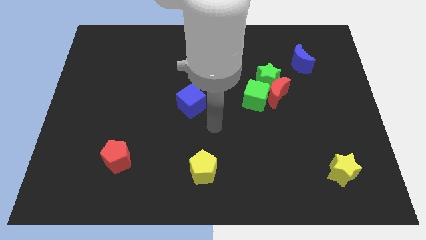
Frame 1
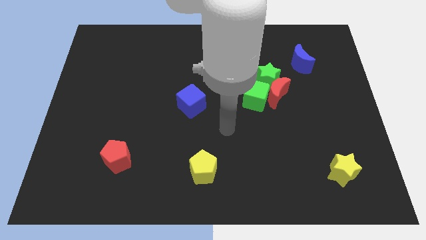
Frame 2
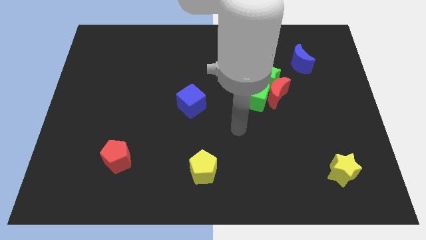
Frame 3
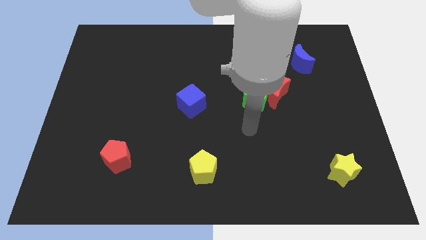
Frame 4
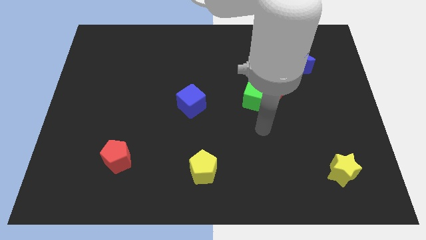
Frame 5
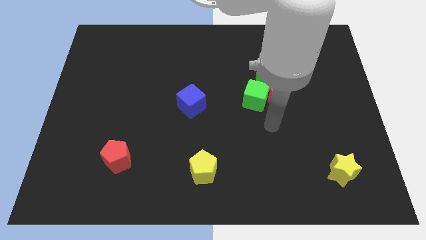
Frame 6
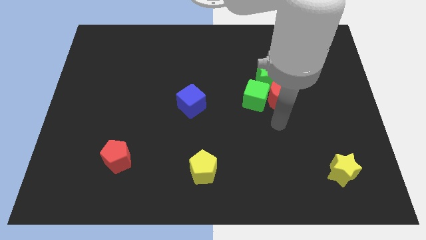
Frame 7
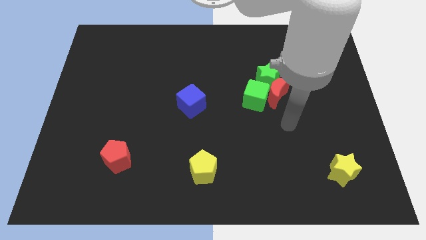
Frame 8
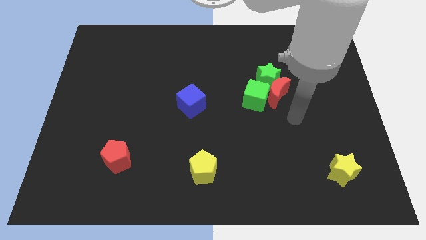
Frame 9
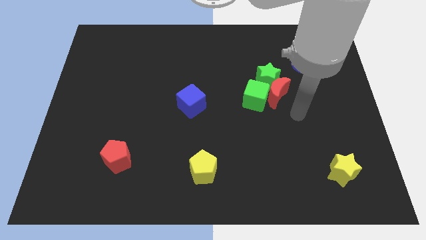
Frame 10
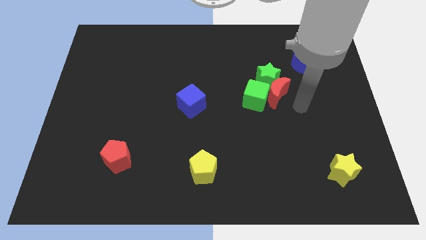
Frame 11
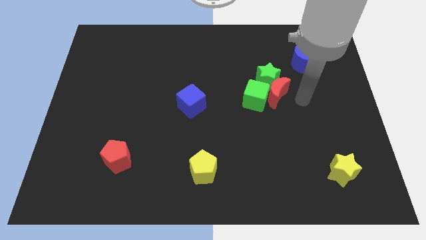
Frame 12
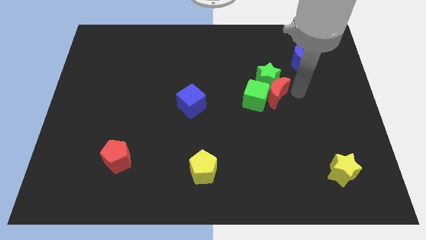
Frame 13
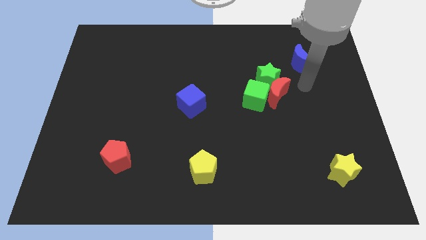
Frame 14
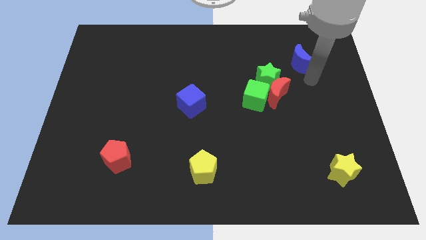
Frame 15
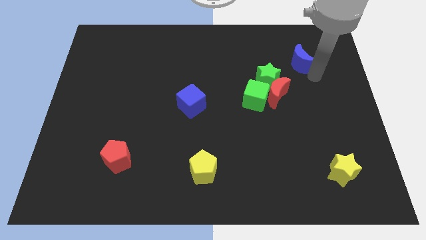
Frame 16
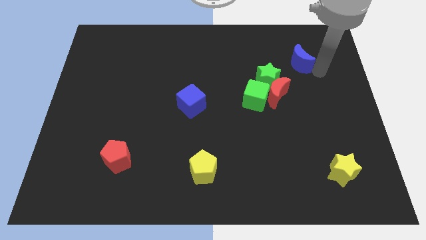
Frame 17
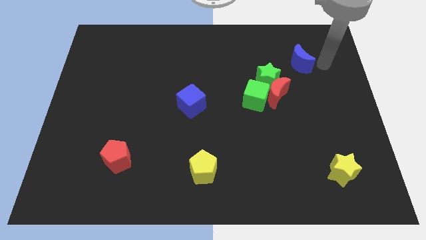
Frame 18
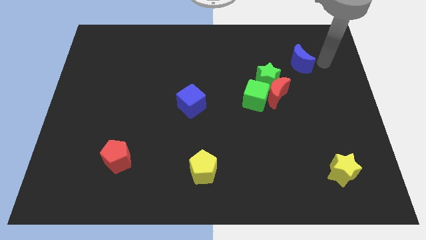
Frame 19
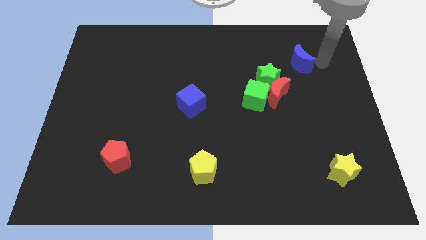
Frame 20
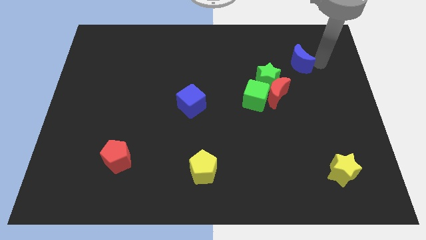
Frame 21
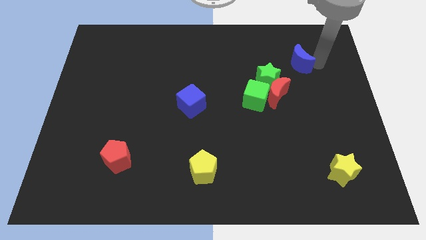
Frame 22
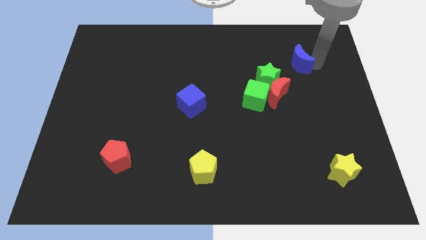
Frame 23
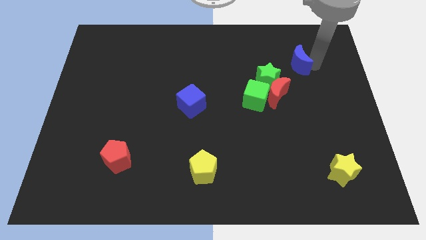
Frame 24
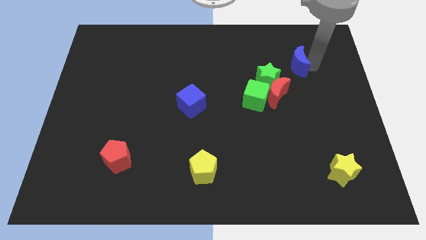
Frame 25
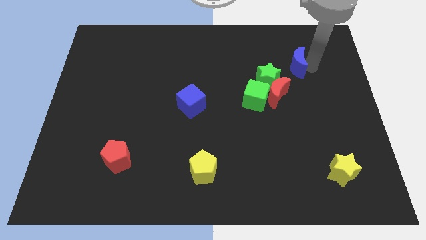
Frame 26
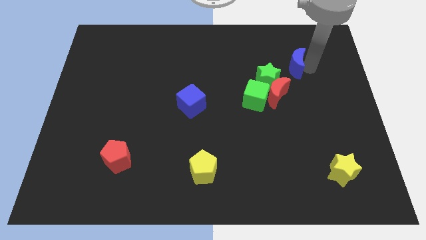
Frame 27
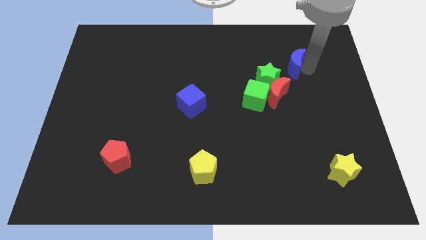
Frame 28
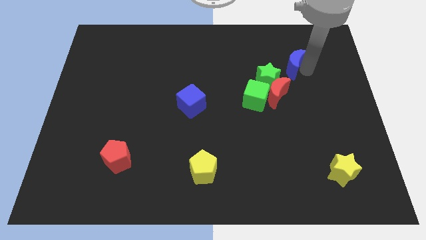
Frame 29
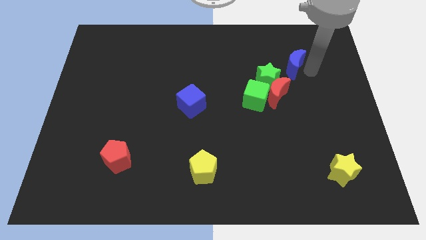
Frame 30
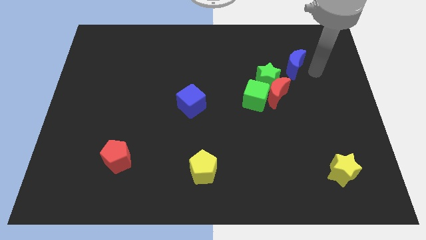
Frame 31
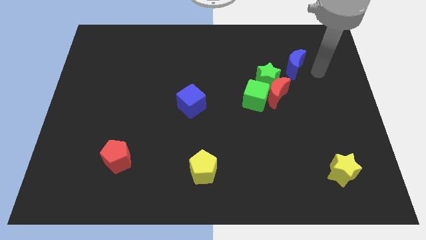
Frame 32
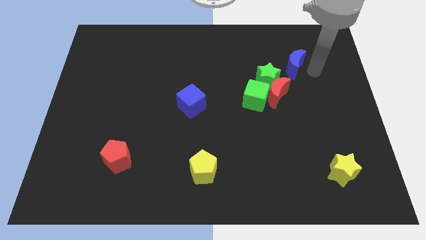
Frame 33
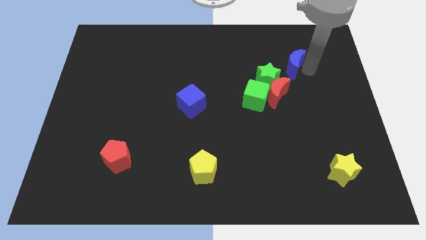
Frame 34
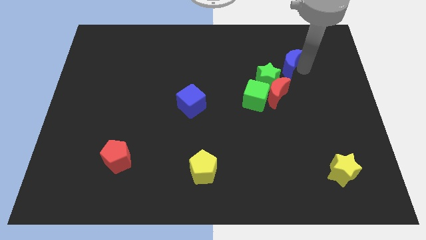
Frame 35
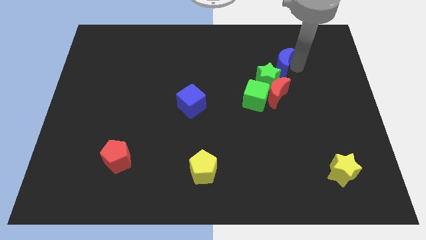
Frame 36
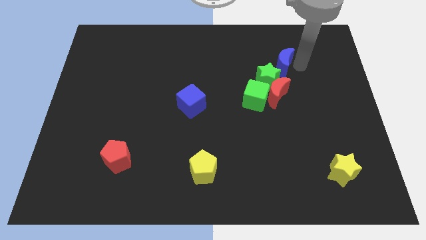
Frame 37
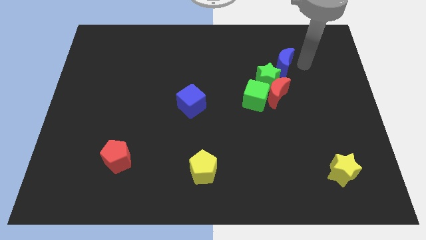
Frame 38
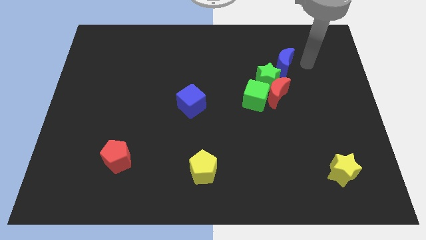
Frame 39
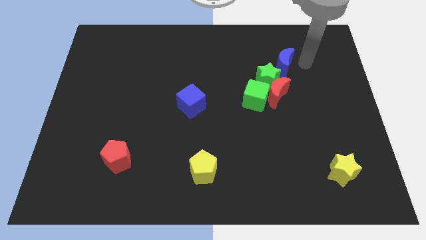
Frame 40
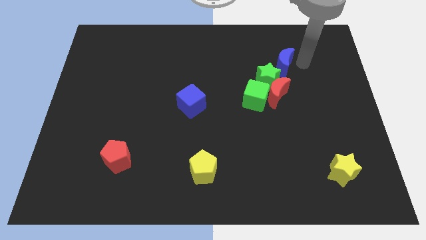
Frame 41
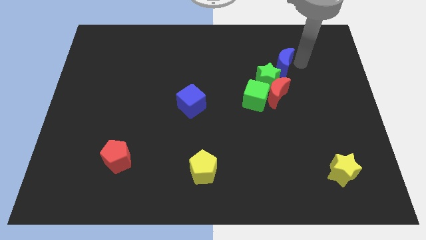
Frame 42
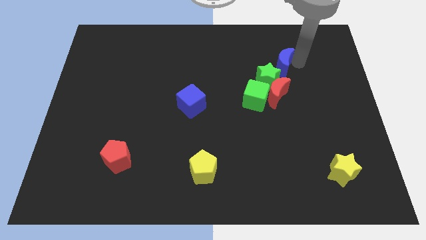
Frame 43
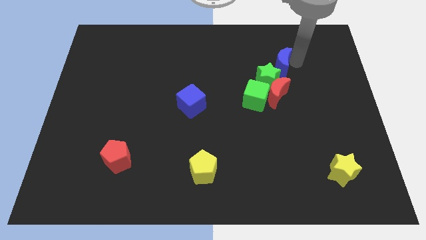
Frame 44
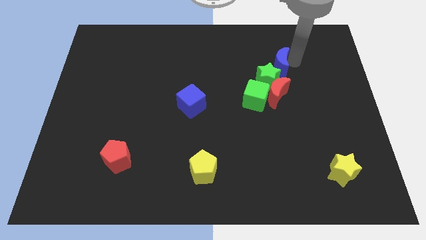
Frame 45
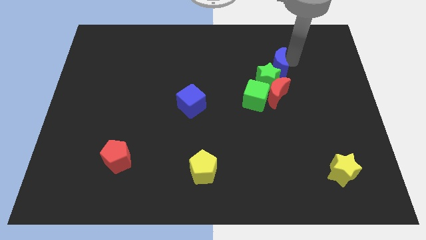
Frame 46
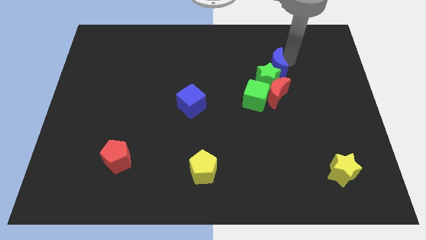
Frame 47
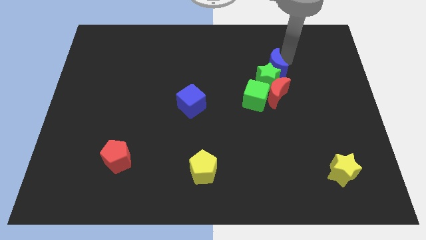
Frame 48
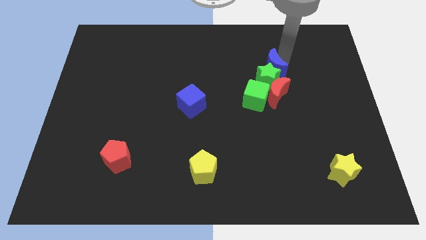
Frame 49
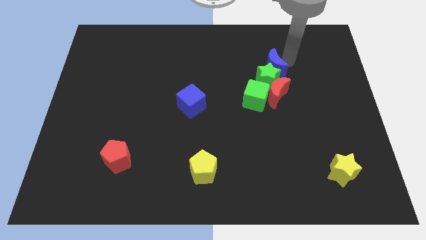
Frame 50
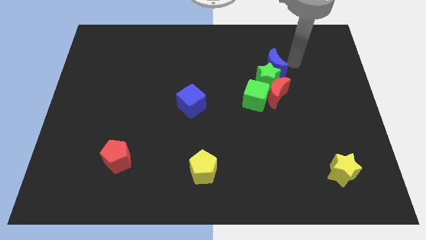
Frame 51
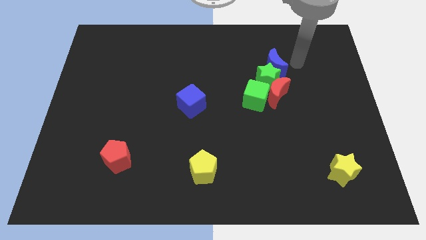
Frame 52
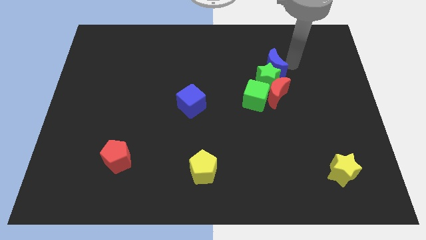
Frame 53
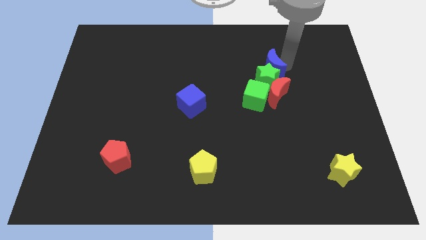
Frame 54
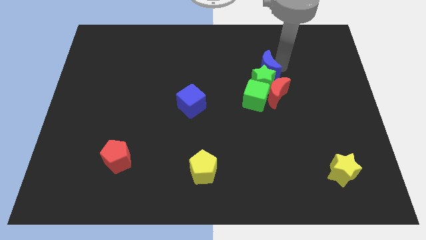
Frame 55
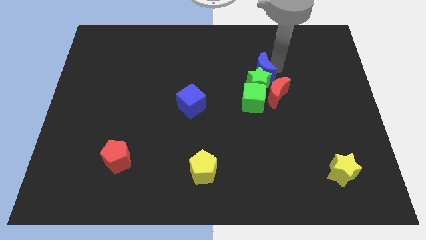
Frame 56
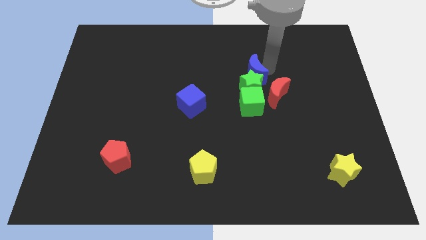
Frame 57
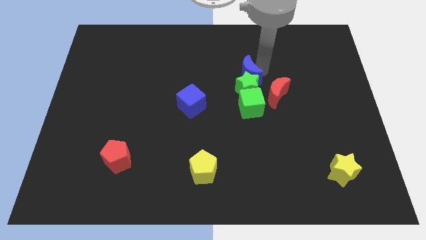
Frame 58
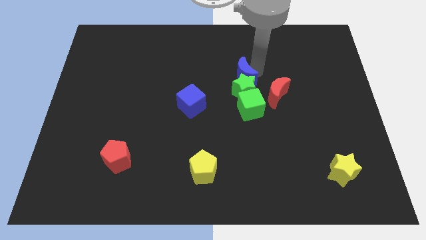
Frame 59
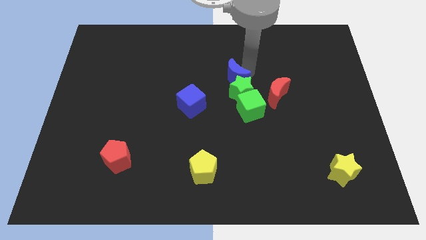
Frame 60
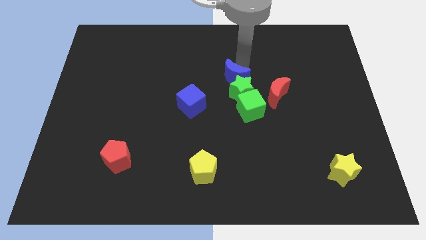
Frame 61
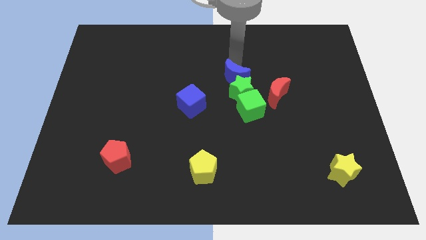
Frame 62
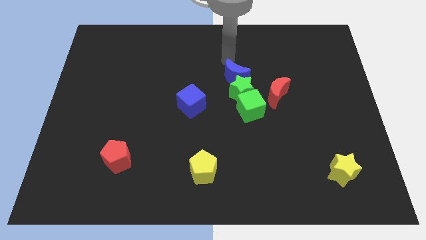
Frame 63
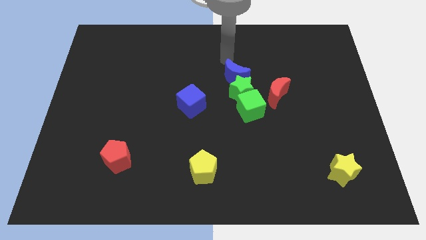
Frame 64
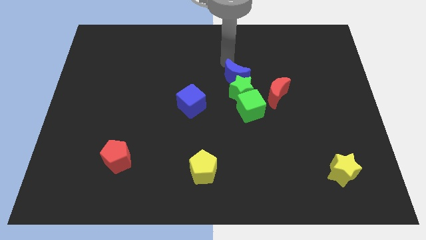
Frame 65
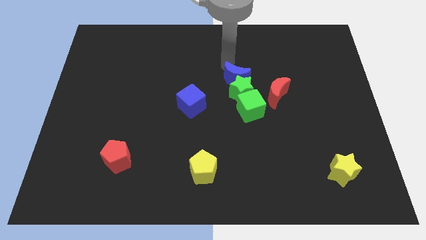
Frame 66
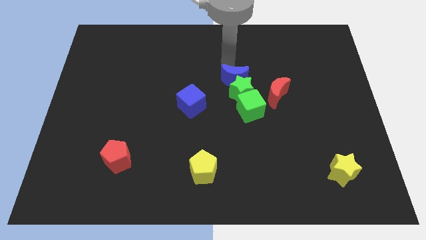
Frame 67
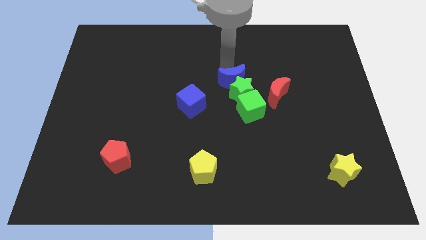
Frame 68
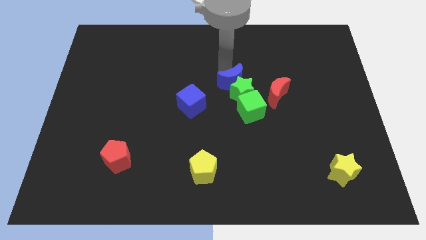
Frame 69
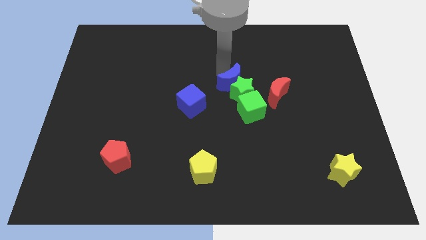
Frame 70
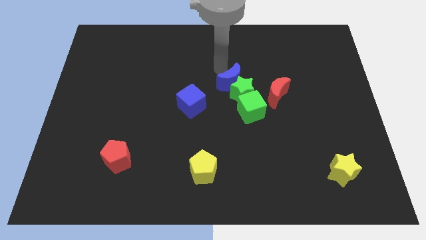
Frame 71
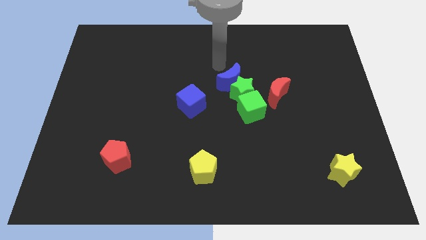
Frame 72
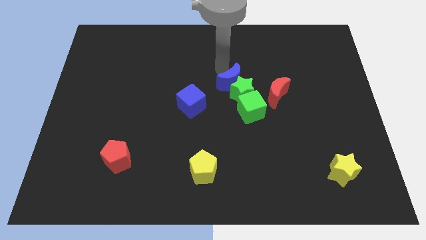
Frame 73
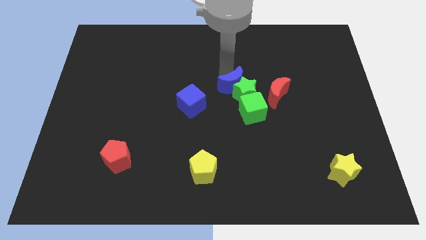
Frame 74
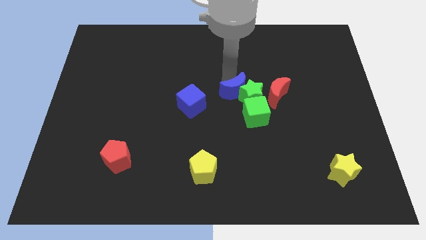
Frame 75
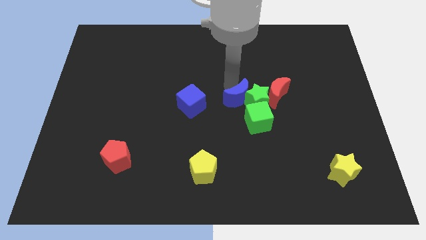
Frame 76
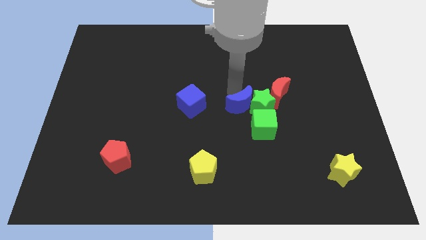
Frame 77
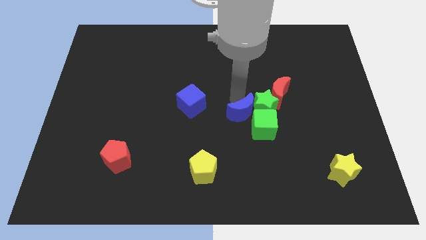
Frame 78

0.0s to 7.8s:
put the blue moon towards the green cube

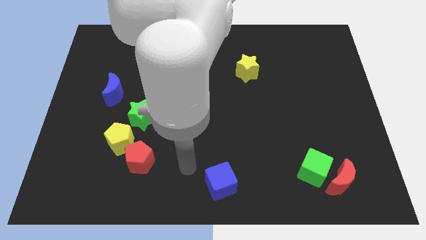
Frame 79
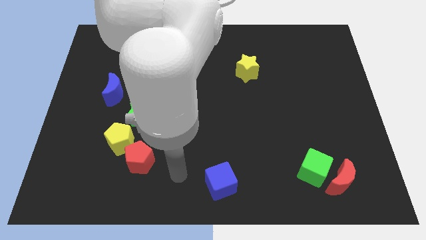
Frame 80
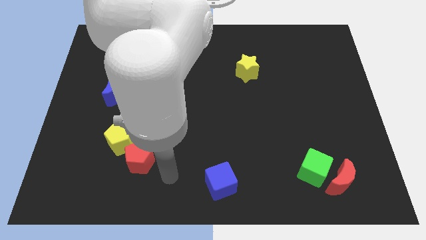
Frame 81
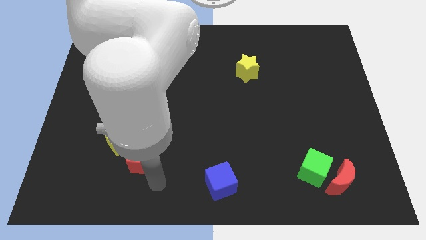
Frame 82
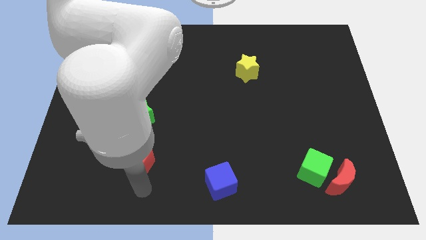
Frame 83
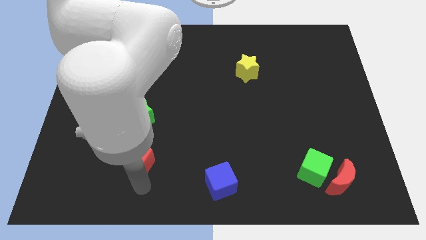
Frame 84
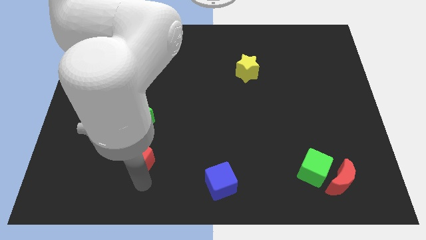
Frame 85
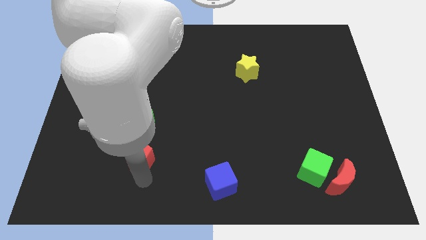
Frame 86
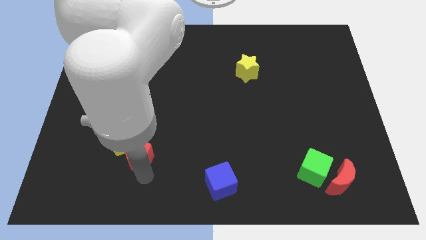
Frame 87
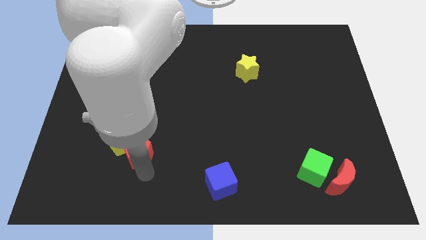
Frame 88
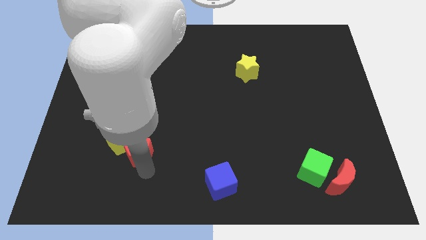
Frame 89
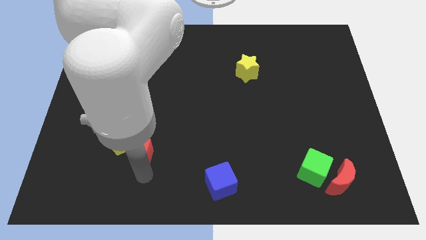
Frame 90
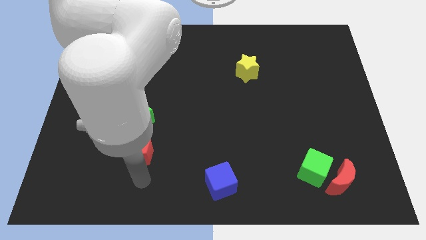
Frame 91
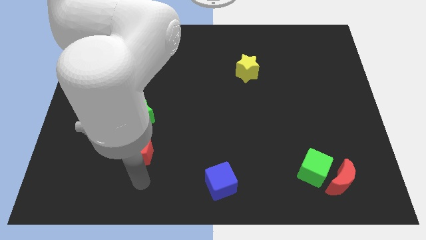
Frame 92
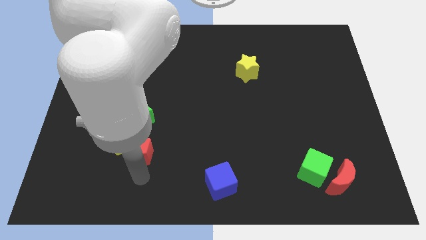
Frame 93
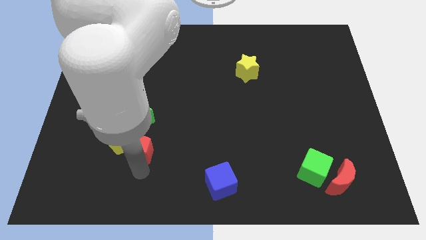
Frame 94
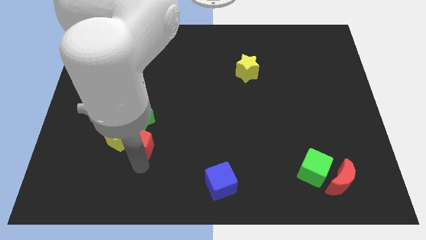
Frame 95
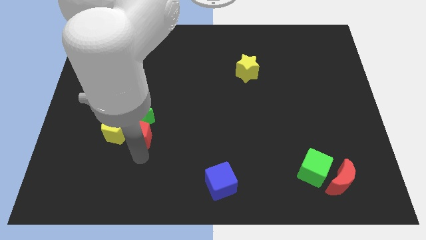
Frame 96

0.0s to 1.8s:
put the red pentagon towards the green star
